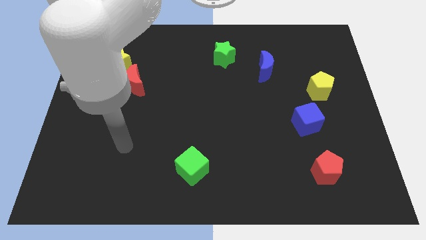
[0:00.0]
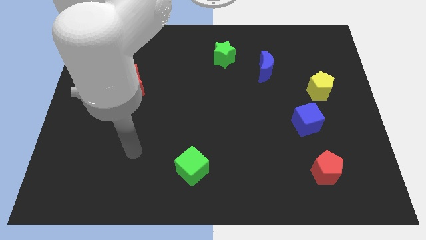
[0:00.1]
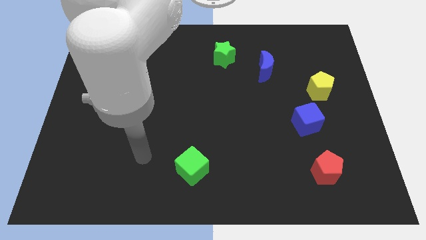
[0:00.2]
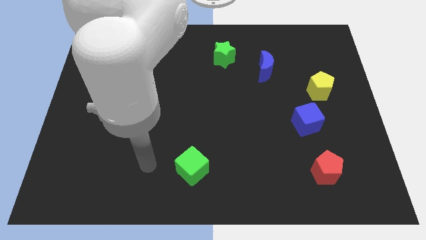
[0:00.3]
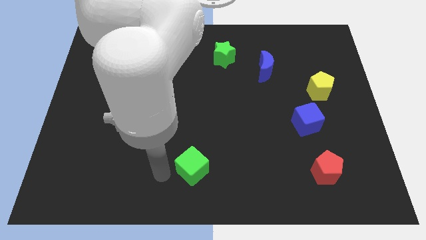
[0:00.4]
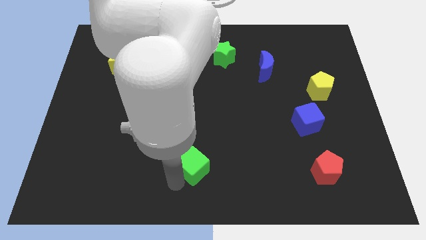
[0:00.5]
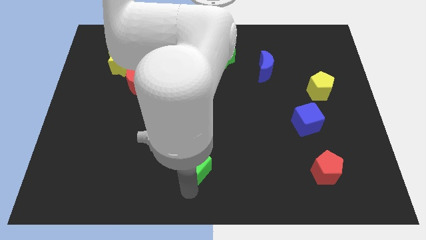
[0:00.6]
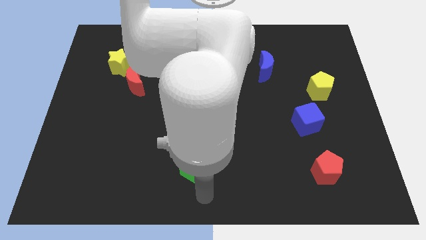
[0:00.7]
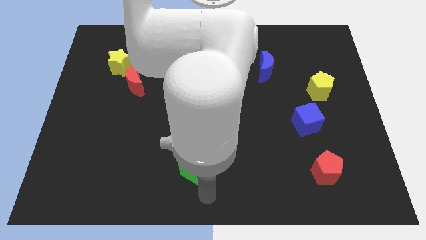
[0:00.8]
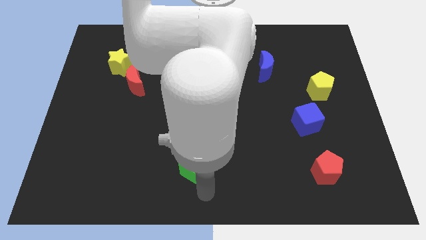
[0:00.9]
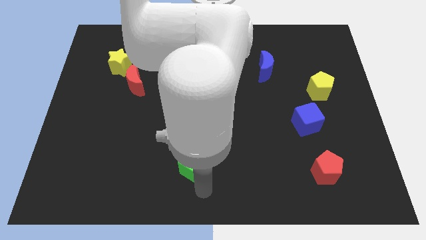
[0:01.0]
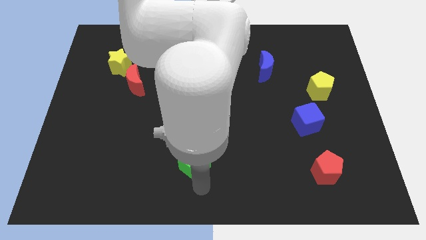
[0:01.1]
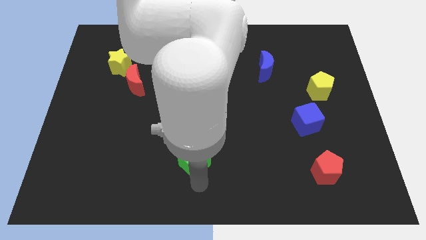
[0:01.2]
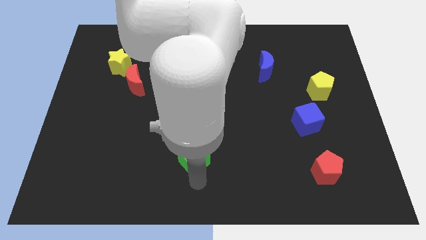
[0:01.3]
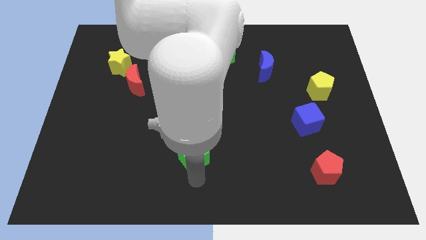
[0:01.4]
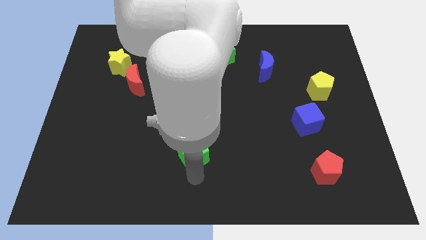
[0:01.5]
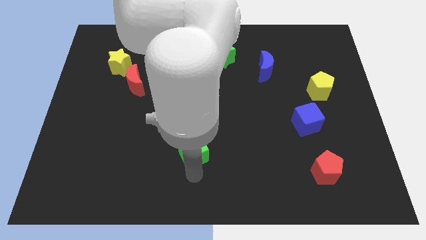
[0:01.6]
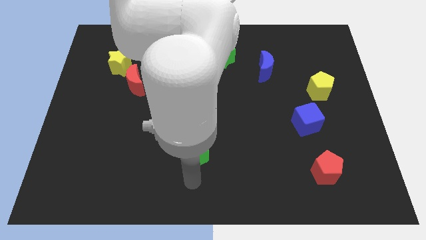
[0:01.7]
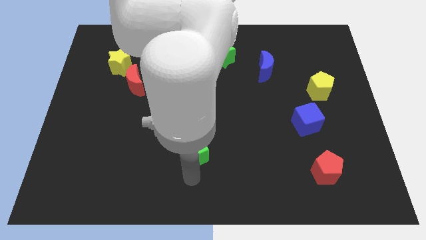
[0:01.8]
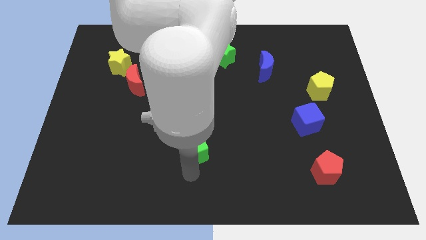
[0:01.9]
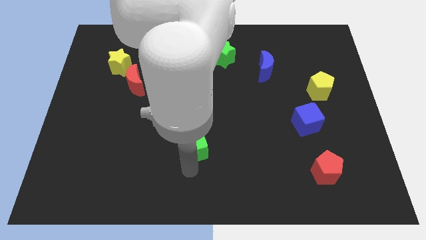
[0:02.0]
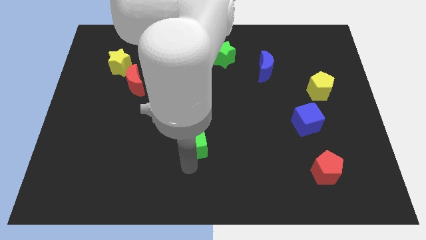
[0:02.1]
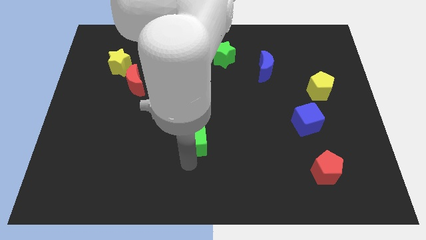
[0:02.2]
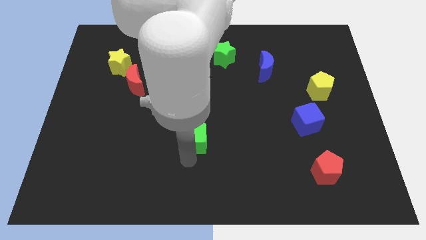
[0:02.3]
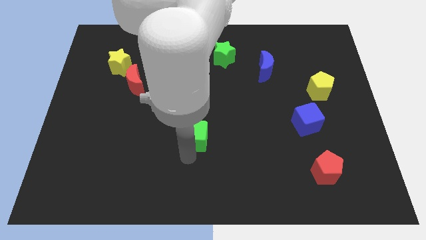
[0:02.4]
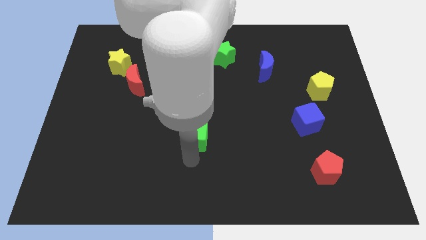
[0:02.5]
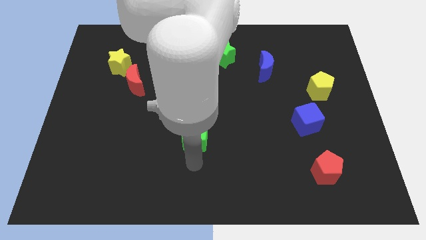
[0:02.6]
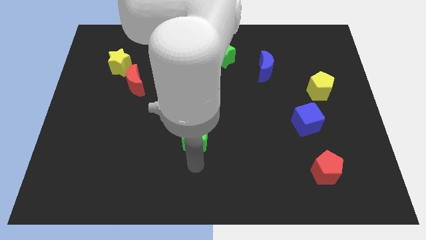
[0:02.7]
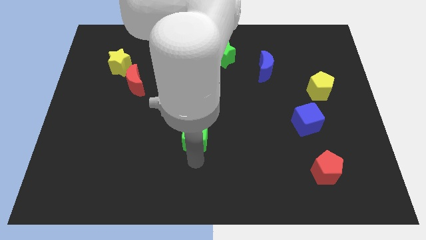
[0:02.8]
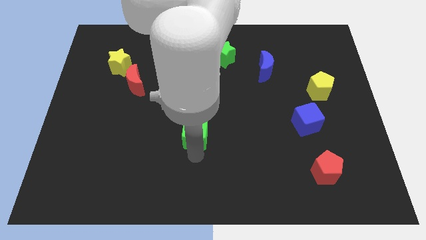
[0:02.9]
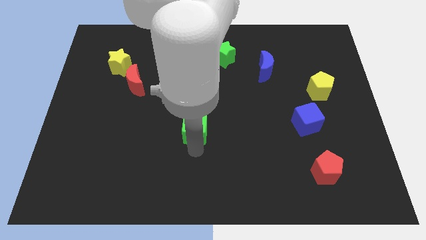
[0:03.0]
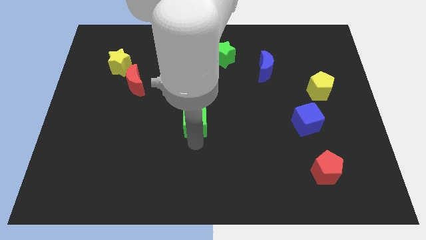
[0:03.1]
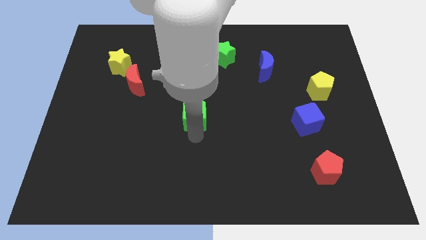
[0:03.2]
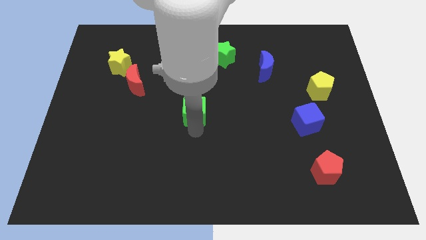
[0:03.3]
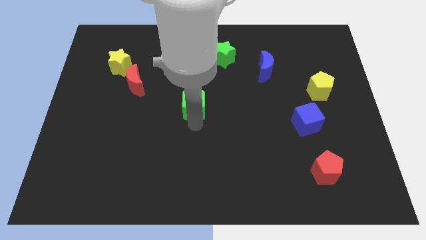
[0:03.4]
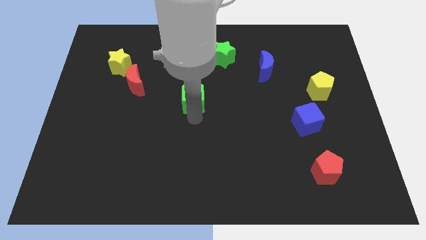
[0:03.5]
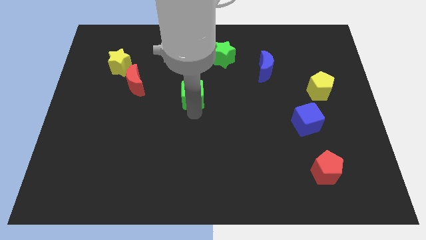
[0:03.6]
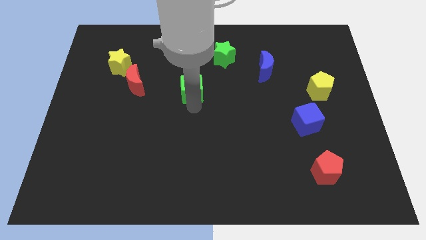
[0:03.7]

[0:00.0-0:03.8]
slide the green cube upwards

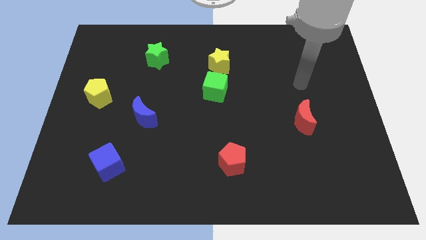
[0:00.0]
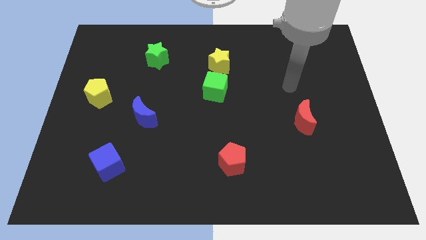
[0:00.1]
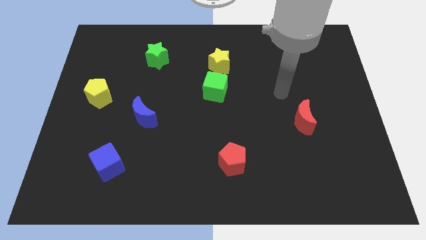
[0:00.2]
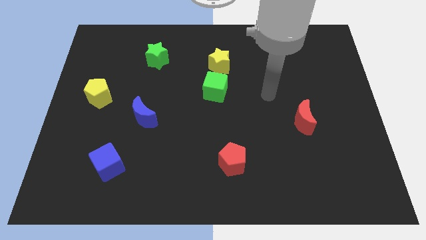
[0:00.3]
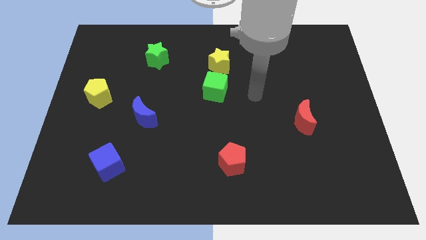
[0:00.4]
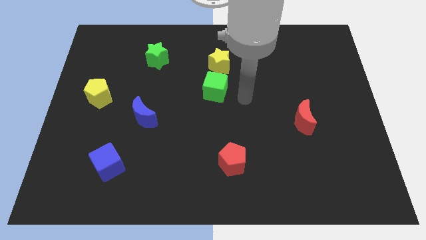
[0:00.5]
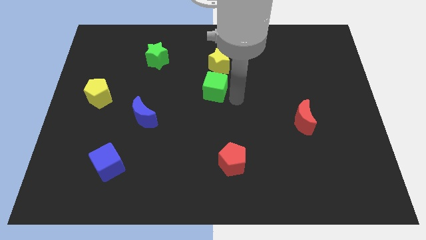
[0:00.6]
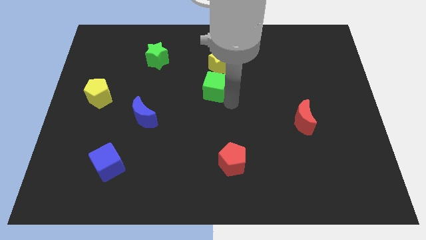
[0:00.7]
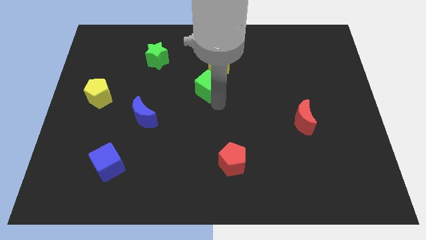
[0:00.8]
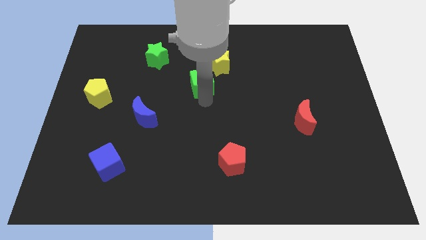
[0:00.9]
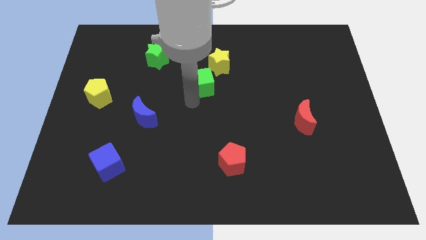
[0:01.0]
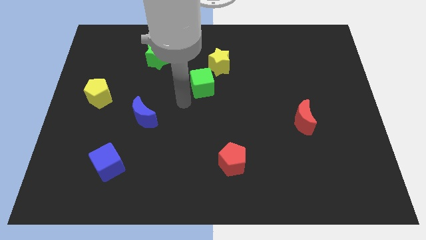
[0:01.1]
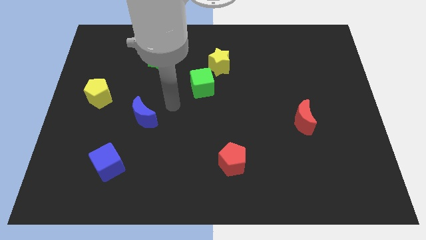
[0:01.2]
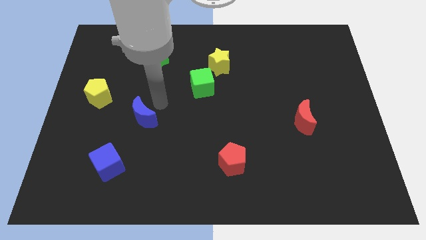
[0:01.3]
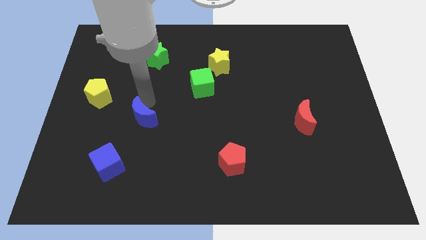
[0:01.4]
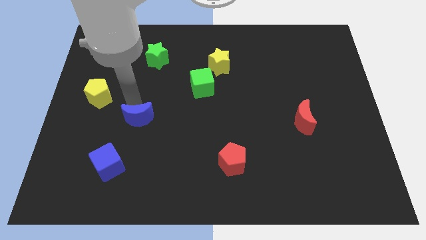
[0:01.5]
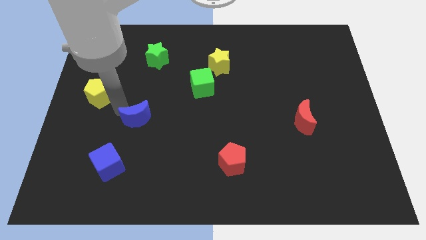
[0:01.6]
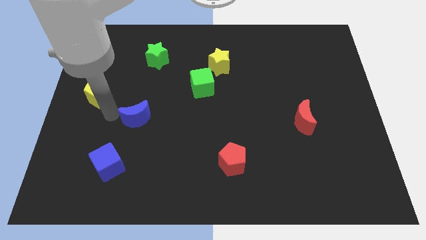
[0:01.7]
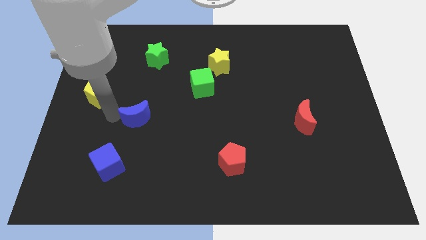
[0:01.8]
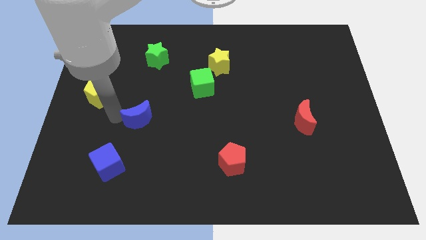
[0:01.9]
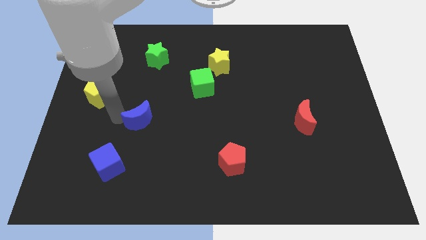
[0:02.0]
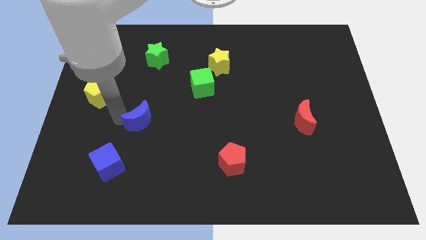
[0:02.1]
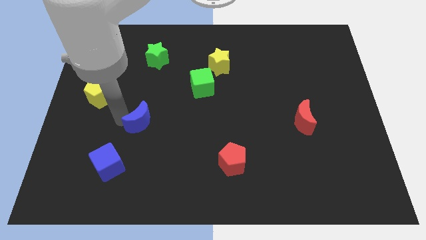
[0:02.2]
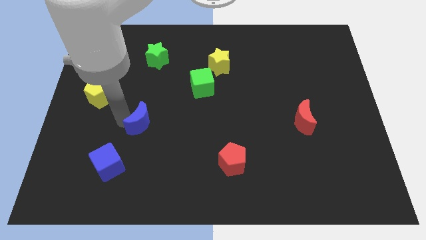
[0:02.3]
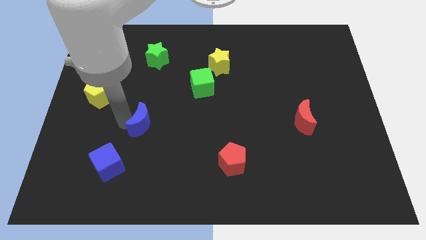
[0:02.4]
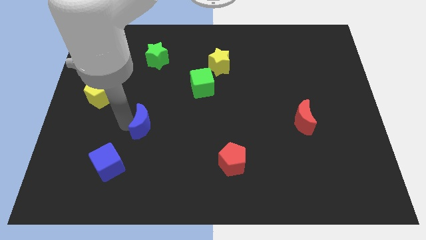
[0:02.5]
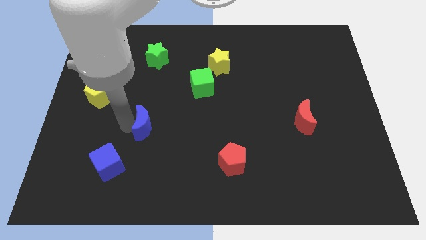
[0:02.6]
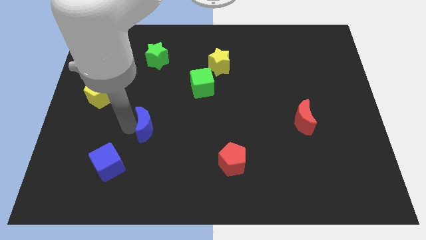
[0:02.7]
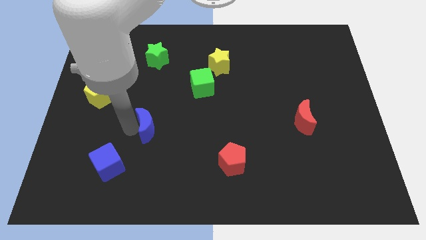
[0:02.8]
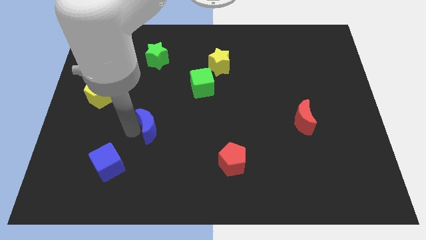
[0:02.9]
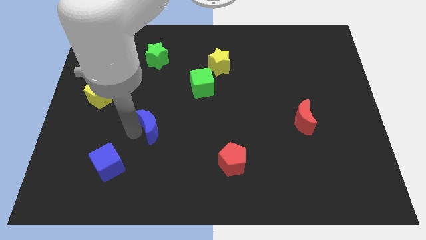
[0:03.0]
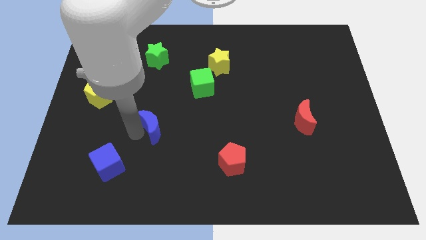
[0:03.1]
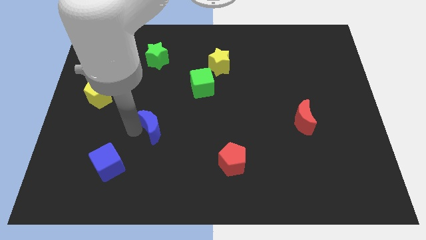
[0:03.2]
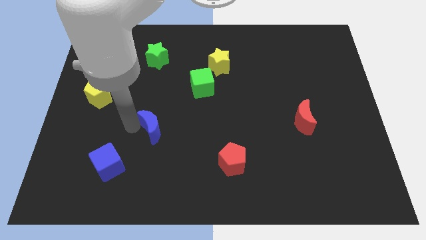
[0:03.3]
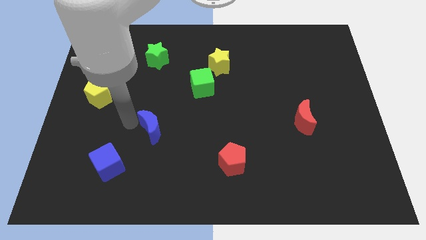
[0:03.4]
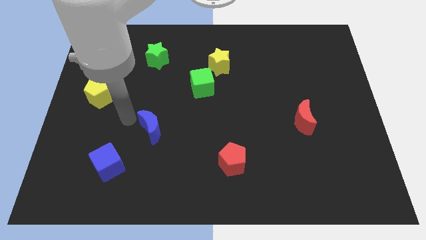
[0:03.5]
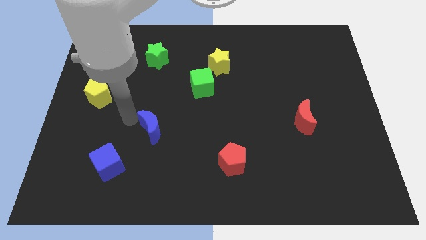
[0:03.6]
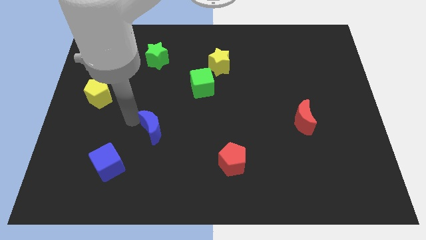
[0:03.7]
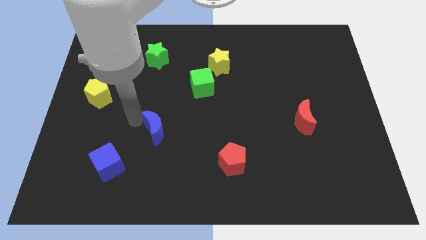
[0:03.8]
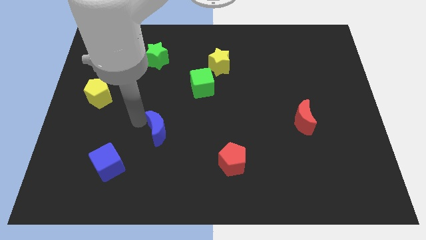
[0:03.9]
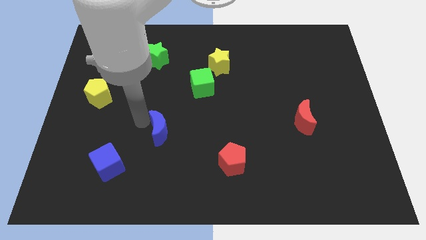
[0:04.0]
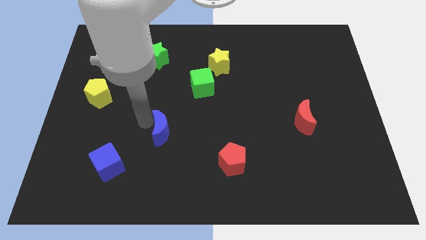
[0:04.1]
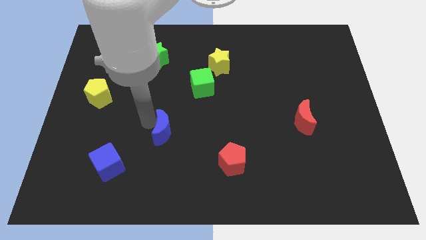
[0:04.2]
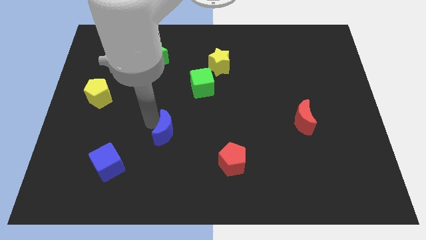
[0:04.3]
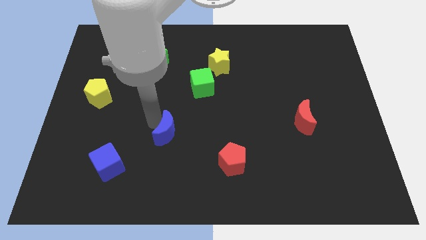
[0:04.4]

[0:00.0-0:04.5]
push the blue moon a little down and to the right diagonally
